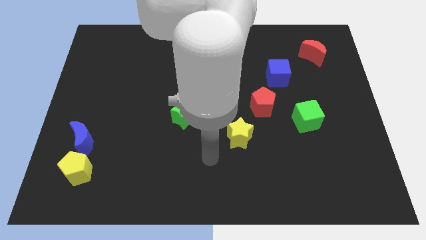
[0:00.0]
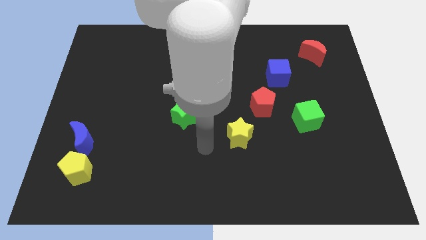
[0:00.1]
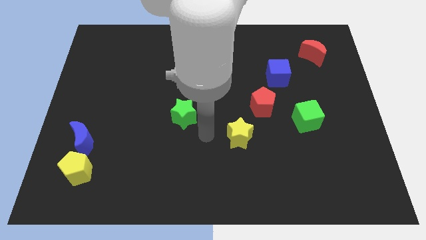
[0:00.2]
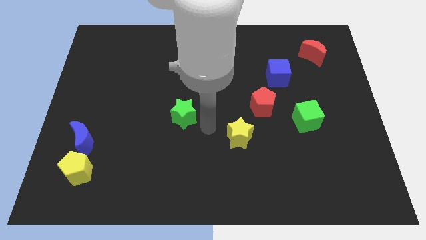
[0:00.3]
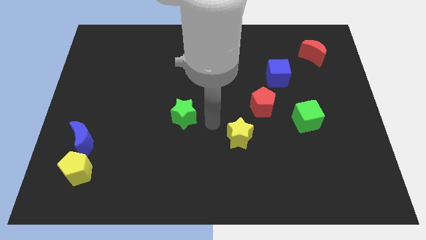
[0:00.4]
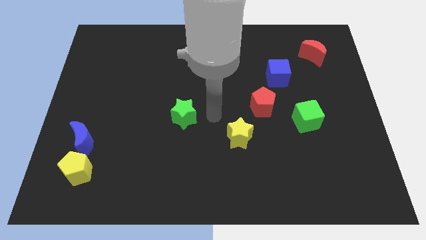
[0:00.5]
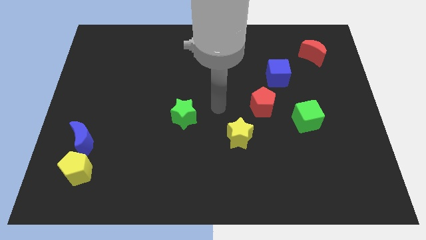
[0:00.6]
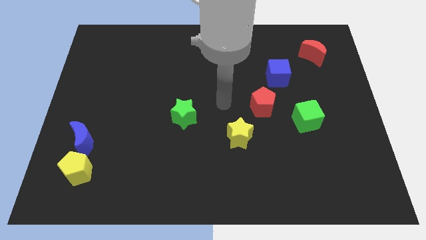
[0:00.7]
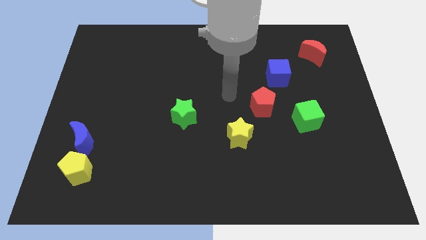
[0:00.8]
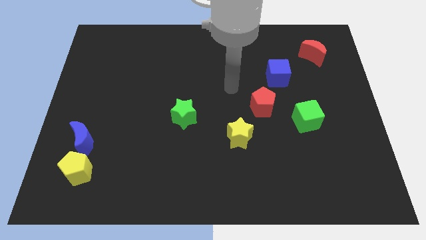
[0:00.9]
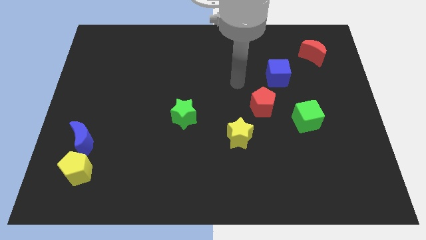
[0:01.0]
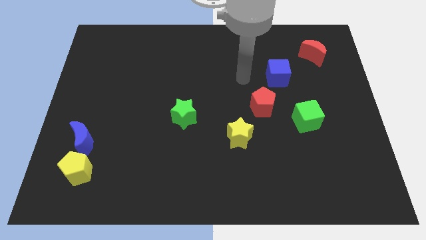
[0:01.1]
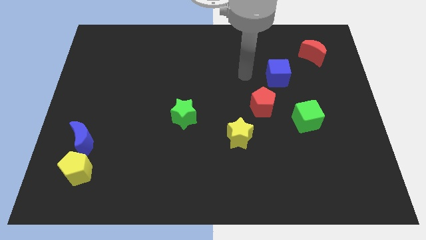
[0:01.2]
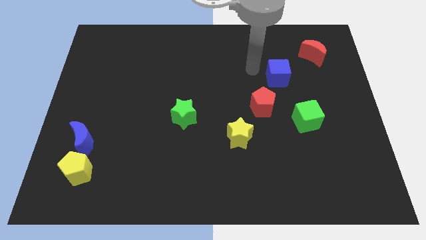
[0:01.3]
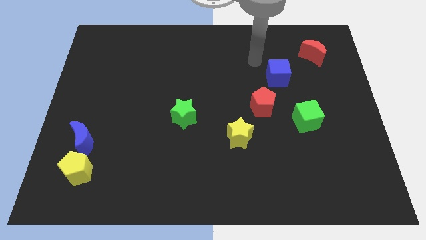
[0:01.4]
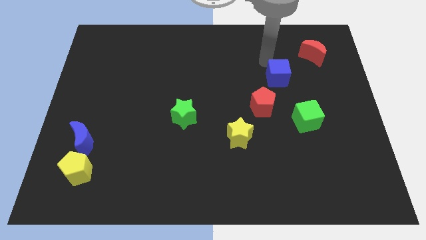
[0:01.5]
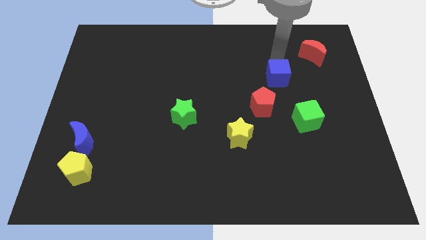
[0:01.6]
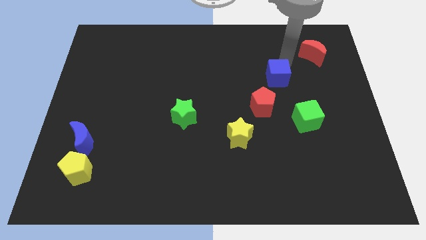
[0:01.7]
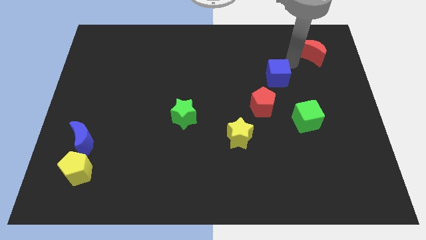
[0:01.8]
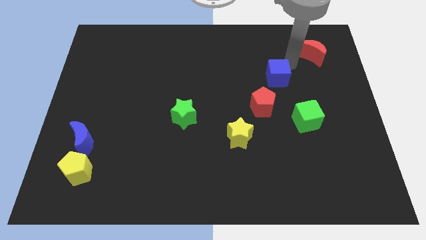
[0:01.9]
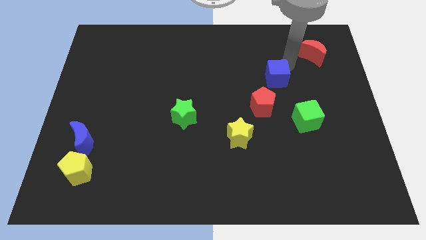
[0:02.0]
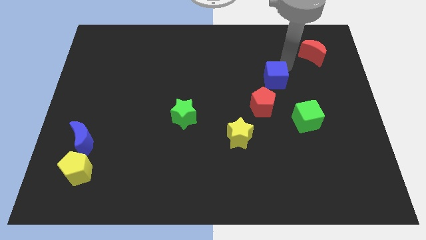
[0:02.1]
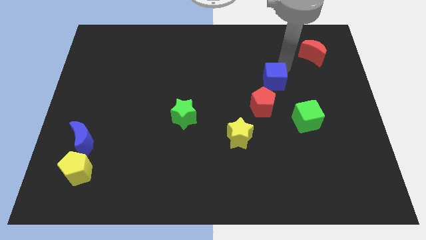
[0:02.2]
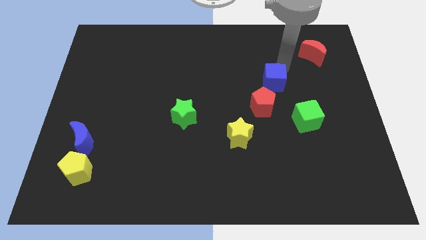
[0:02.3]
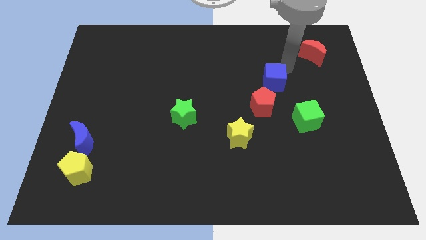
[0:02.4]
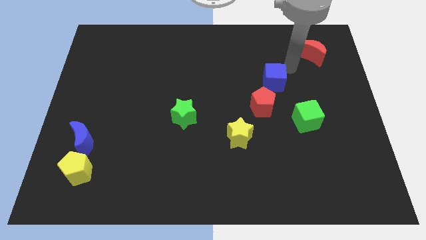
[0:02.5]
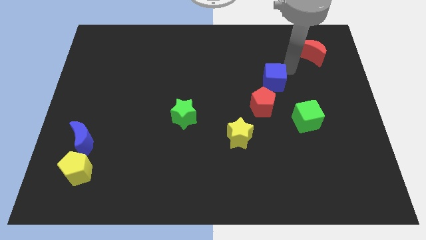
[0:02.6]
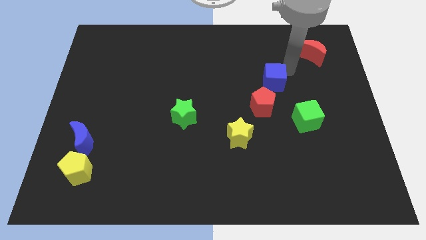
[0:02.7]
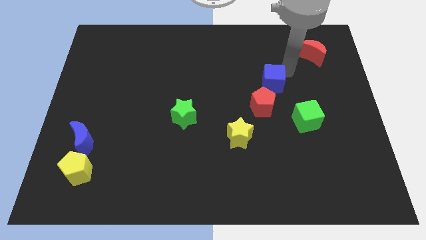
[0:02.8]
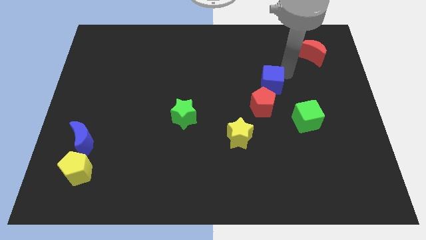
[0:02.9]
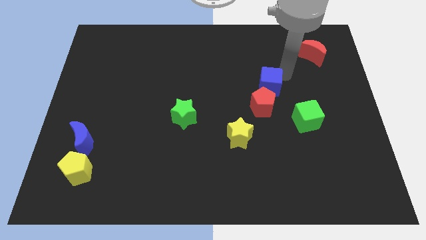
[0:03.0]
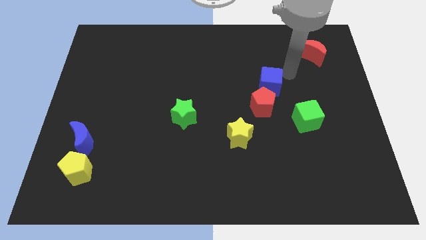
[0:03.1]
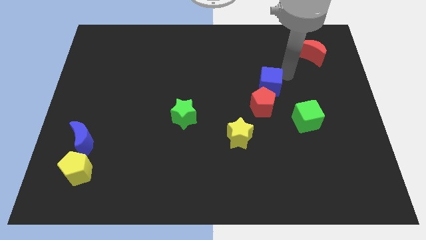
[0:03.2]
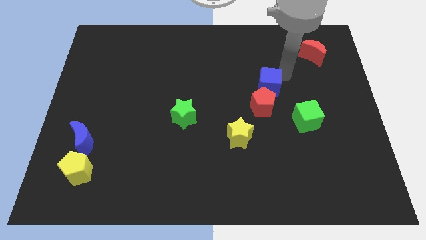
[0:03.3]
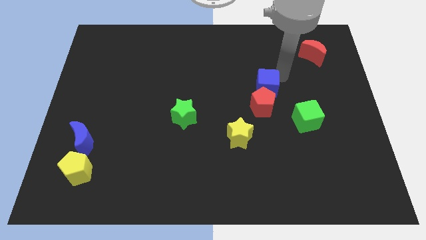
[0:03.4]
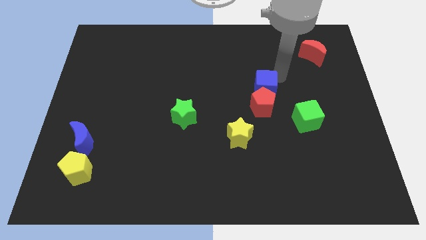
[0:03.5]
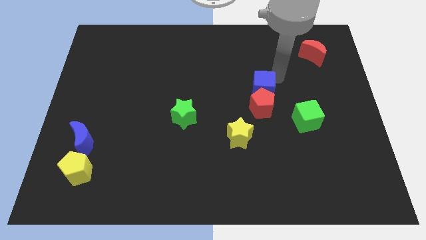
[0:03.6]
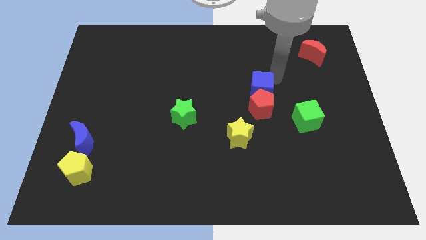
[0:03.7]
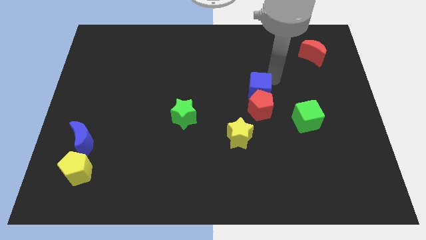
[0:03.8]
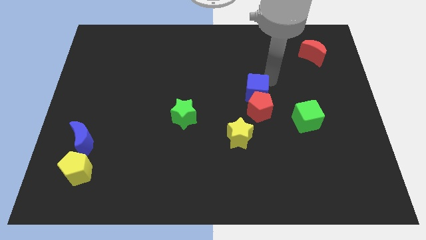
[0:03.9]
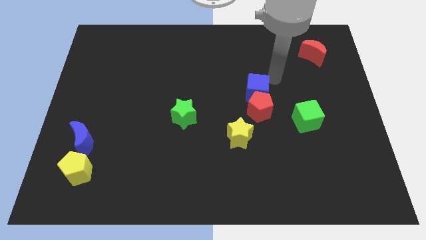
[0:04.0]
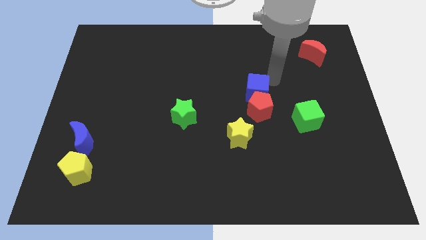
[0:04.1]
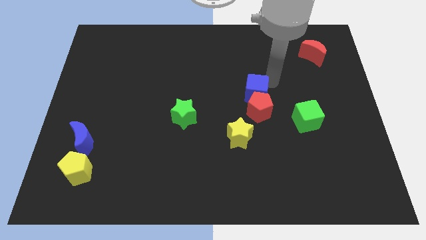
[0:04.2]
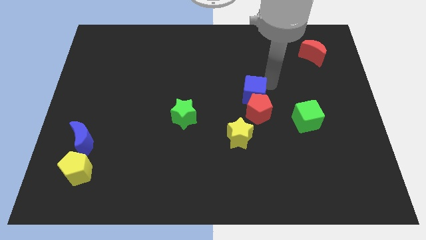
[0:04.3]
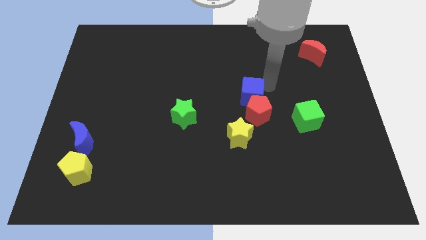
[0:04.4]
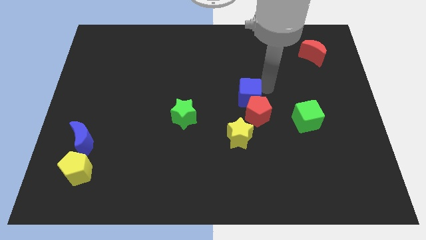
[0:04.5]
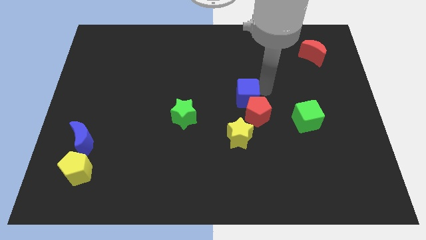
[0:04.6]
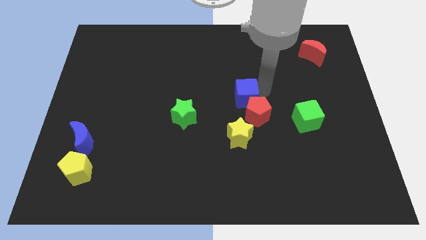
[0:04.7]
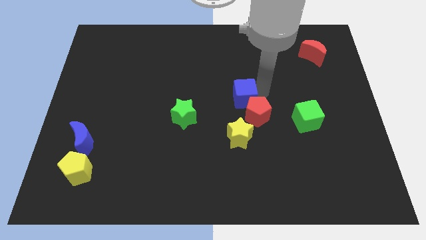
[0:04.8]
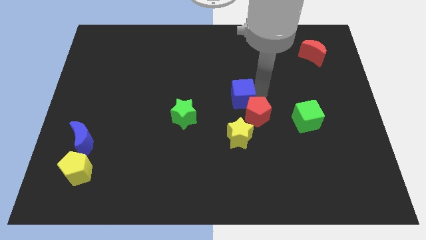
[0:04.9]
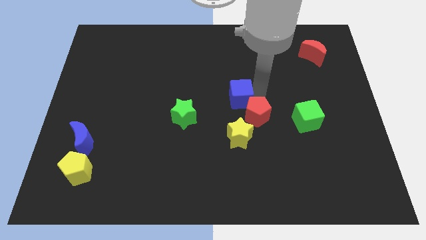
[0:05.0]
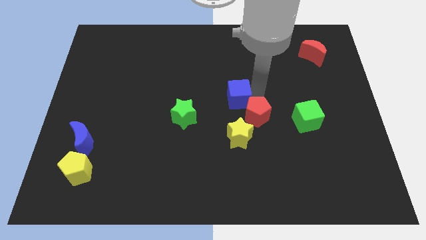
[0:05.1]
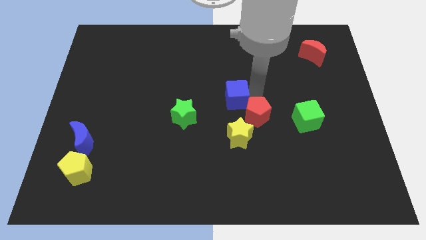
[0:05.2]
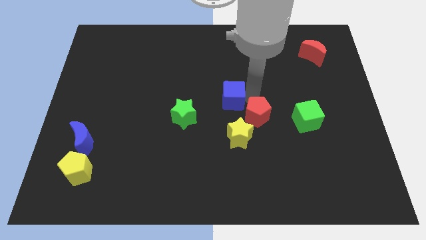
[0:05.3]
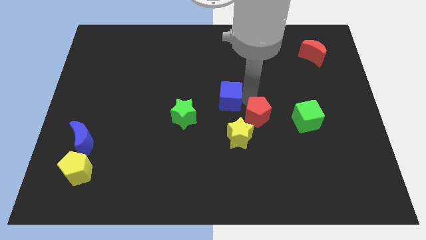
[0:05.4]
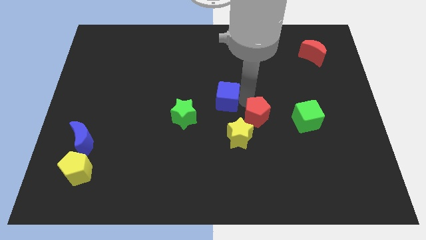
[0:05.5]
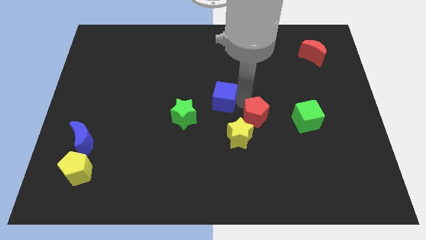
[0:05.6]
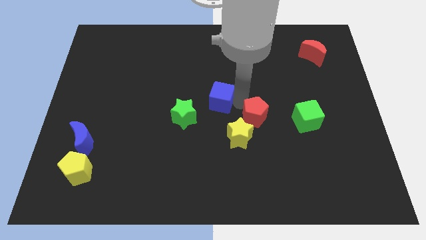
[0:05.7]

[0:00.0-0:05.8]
put the blue cube to the top left side of the yellow star

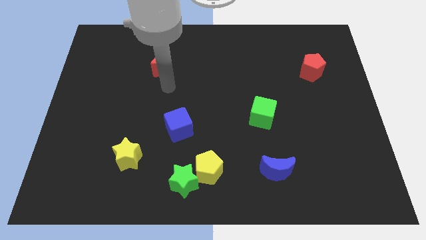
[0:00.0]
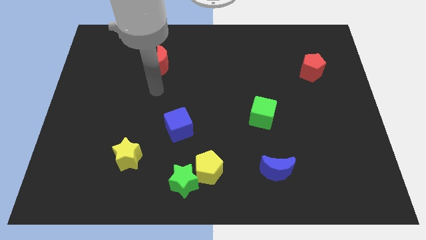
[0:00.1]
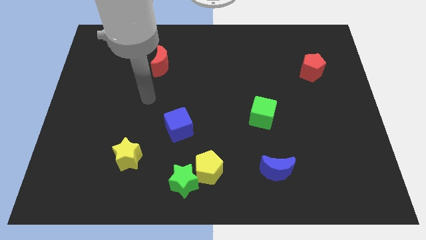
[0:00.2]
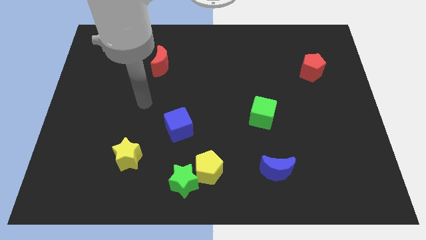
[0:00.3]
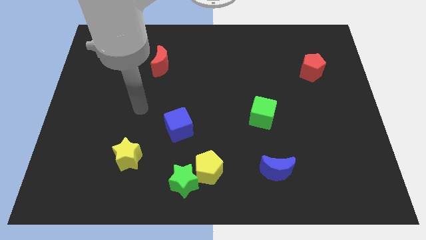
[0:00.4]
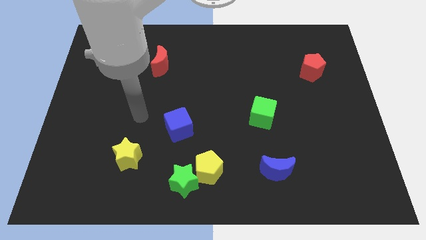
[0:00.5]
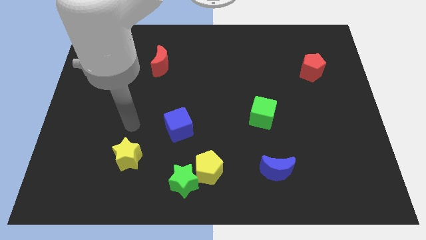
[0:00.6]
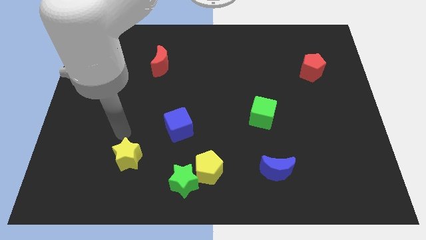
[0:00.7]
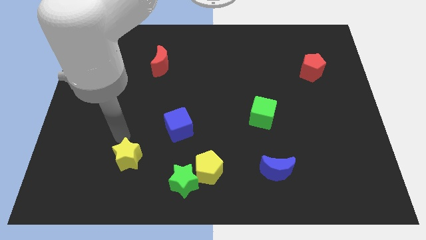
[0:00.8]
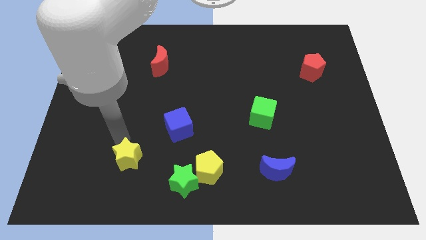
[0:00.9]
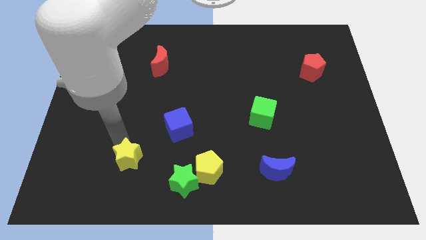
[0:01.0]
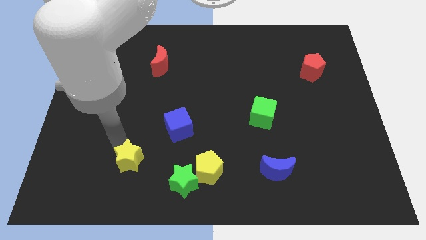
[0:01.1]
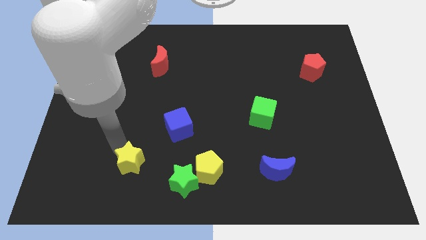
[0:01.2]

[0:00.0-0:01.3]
slide the yellow star to the left of the green star
